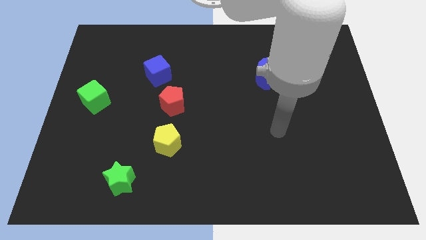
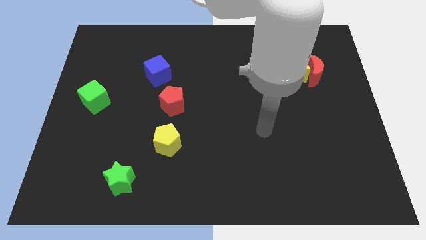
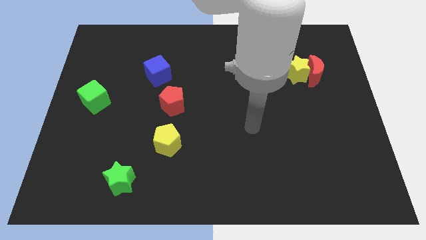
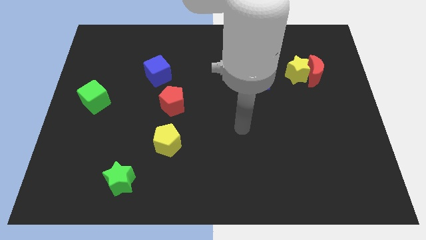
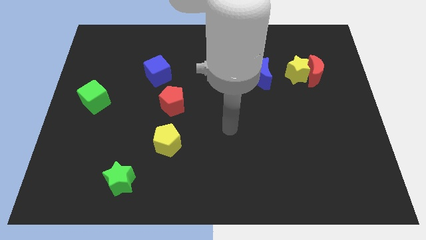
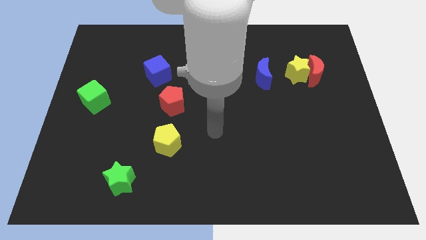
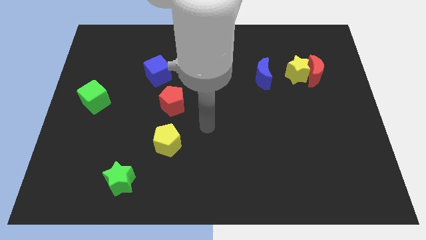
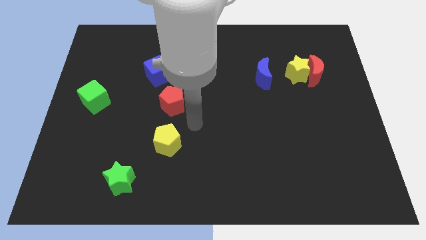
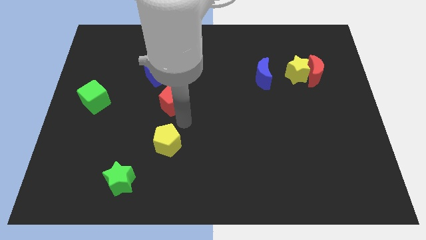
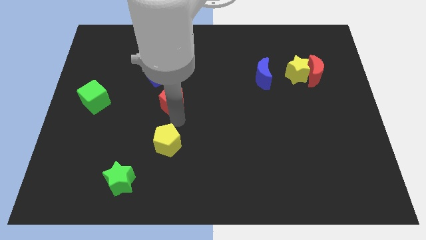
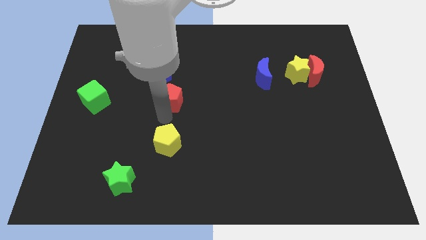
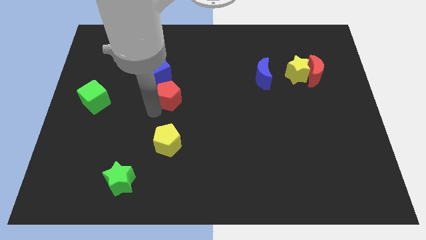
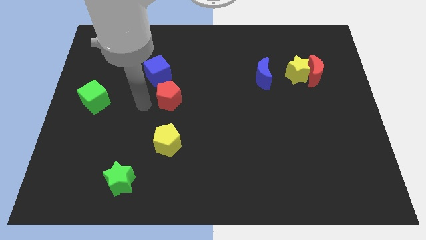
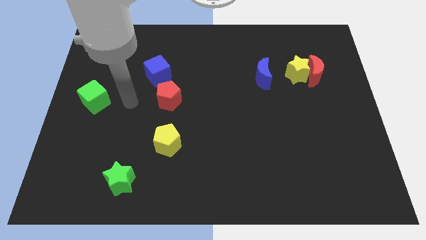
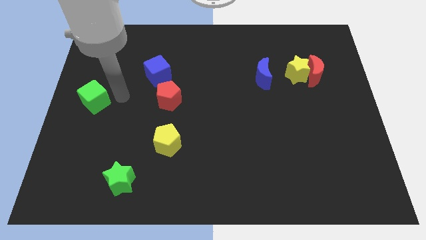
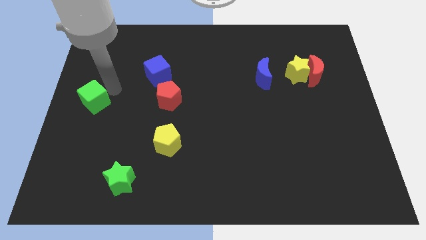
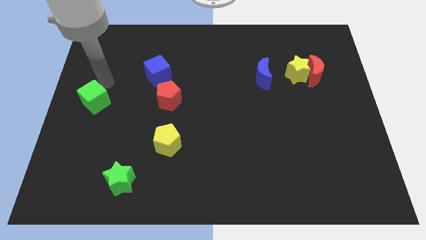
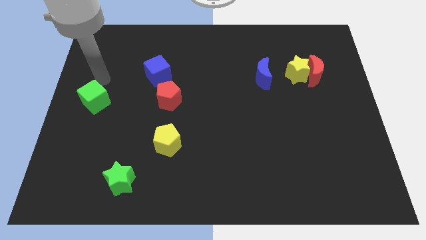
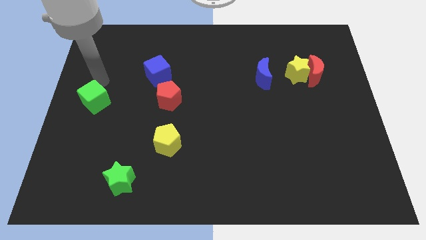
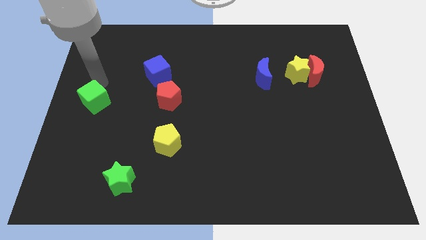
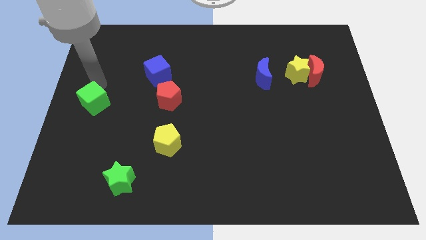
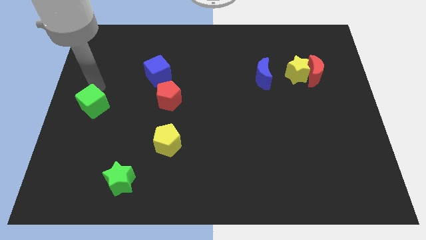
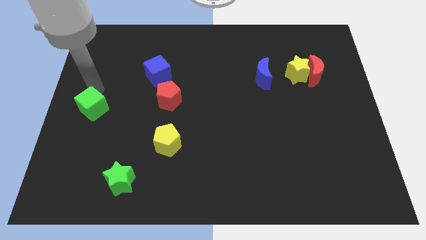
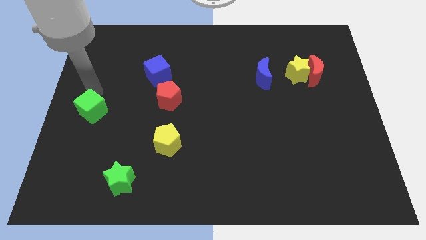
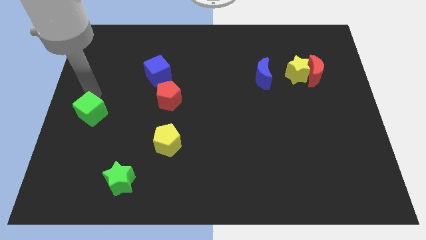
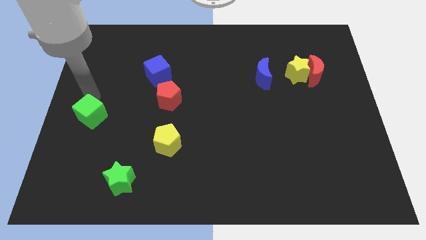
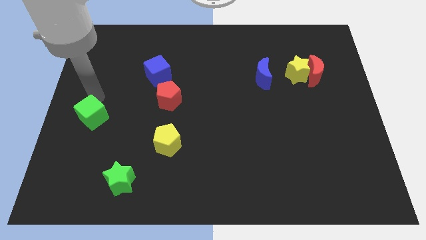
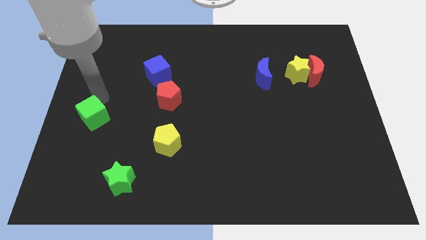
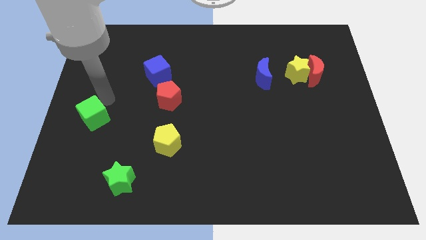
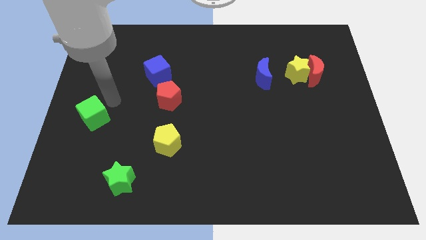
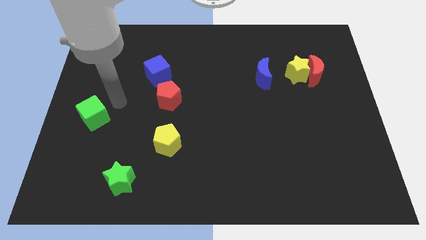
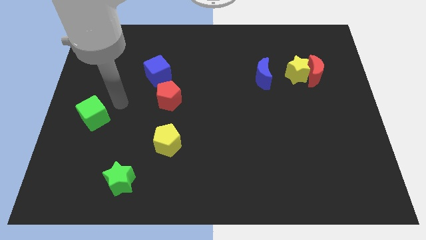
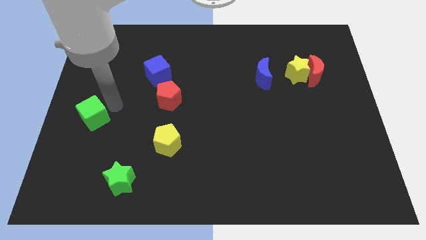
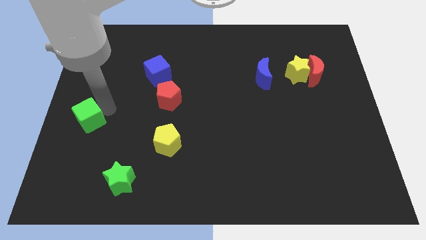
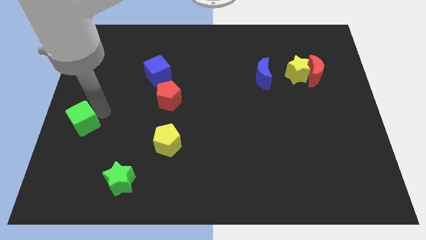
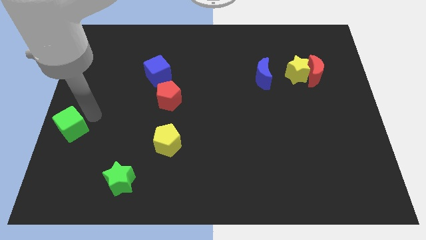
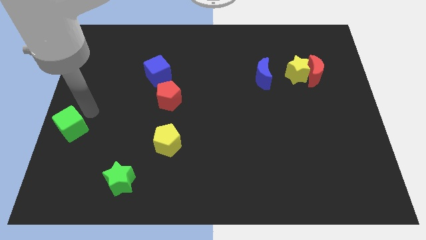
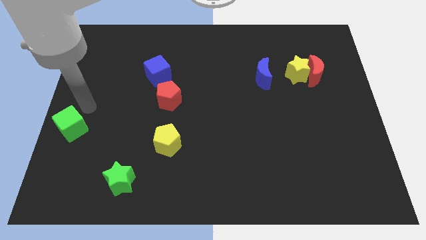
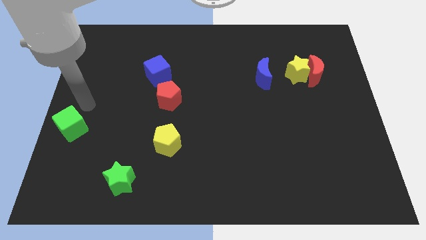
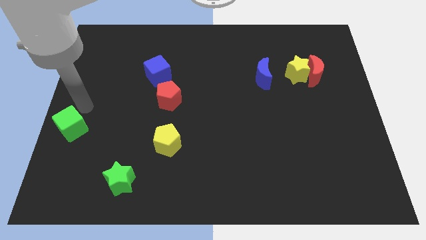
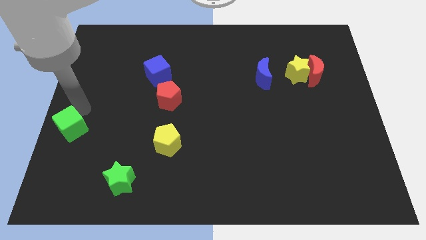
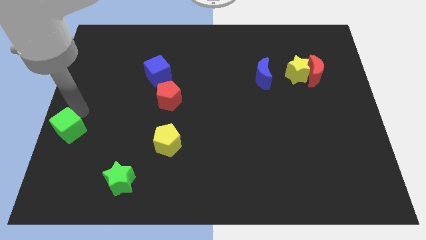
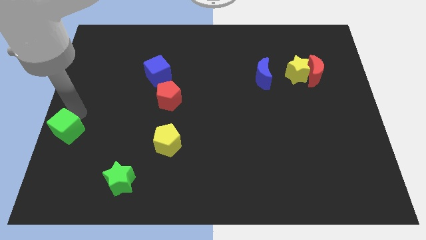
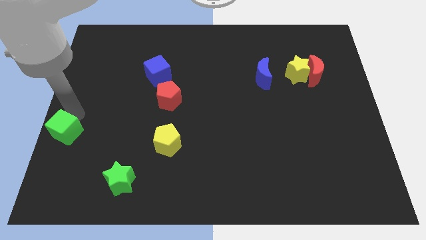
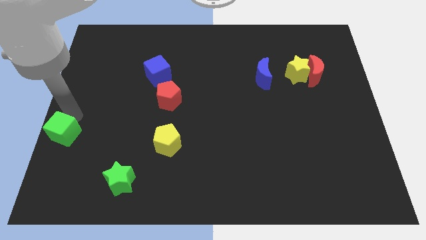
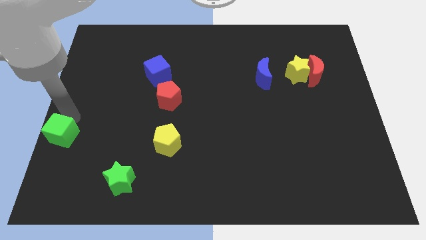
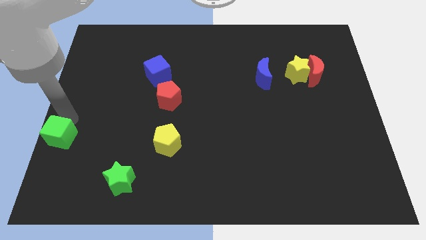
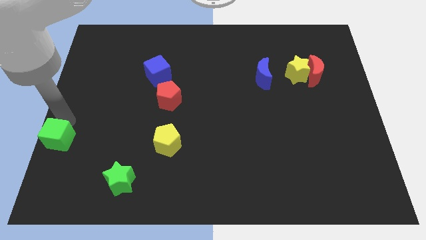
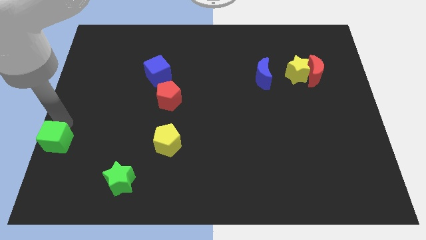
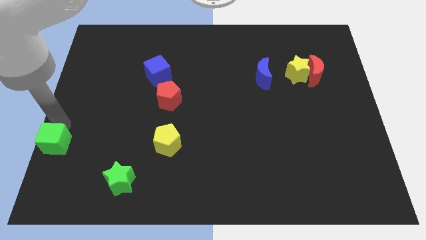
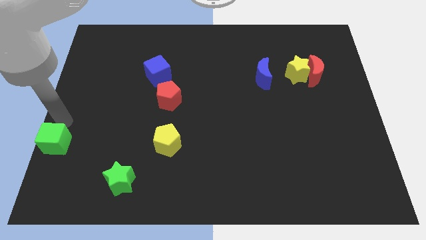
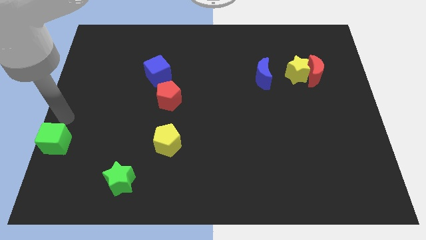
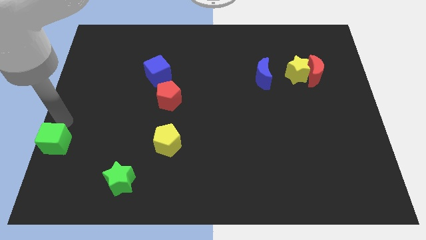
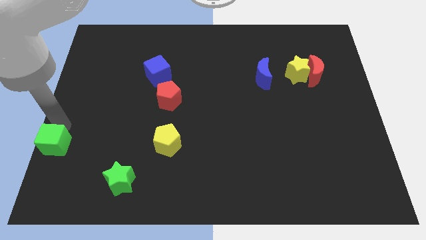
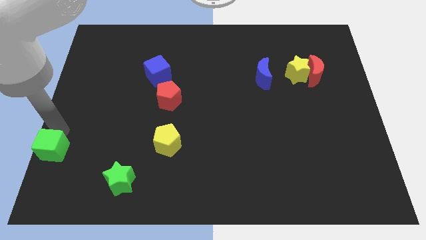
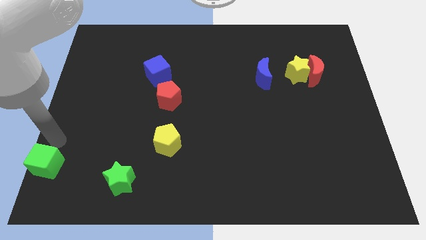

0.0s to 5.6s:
put the green cube to the bottom left

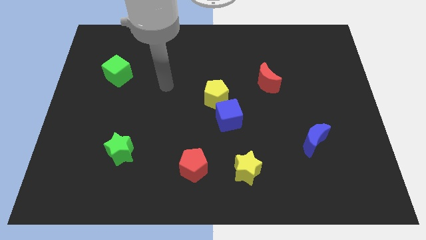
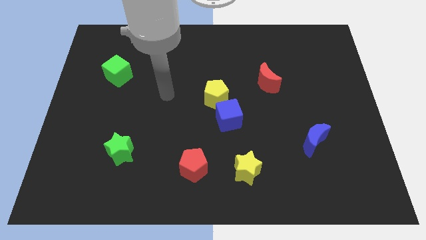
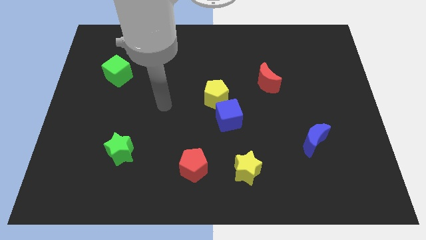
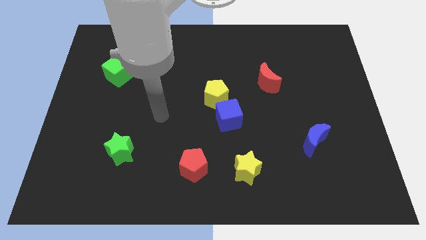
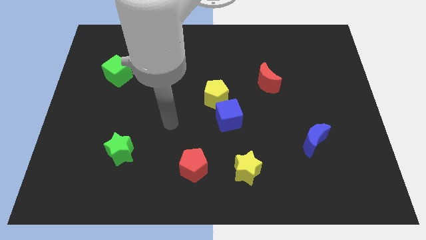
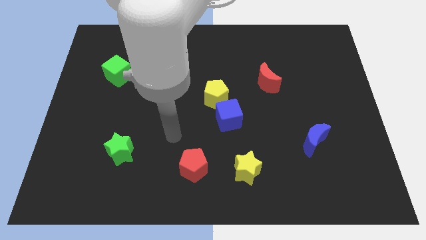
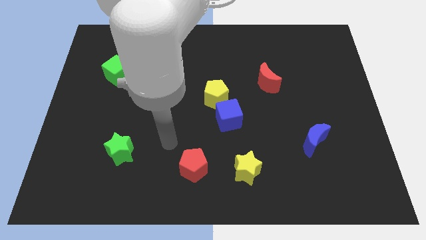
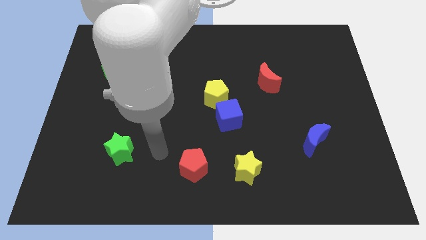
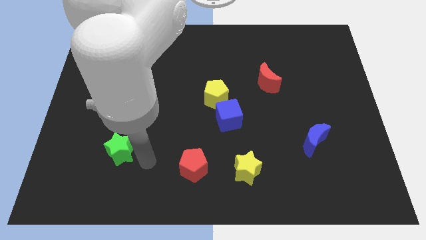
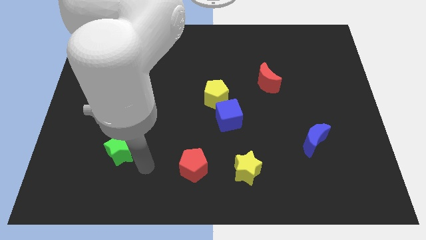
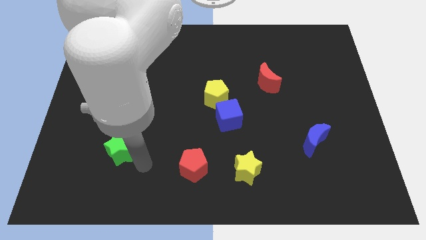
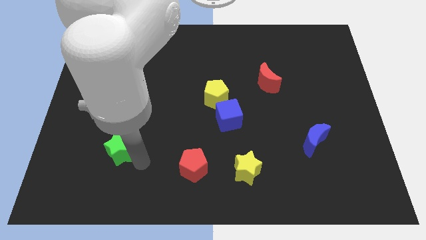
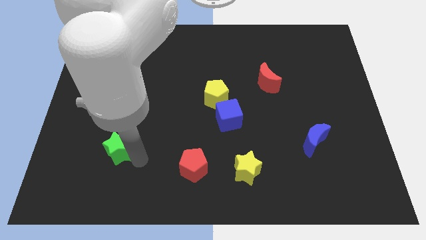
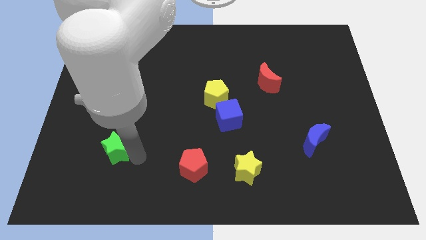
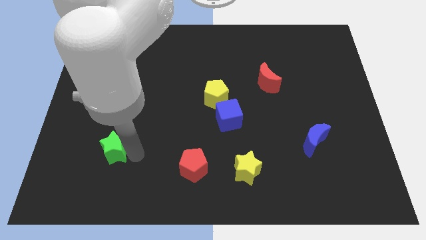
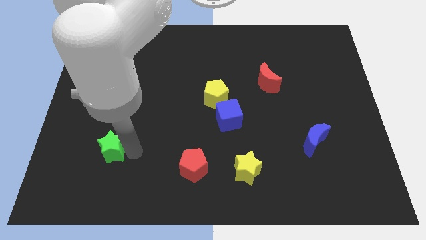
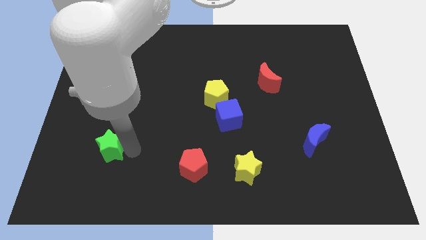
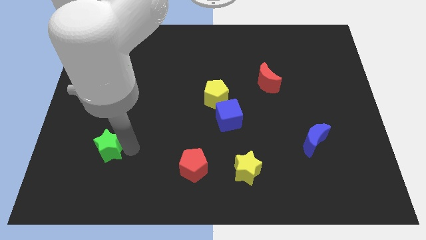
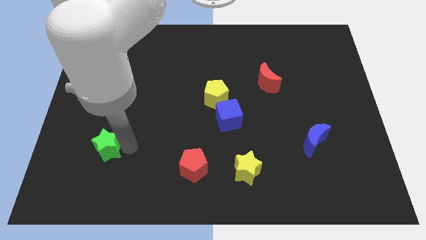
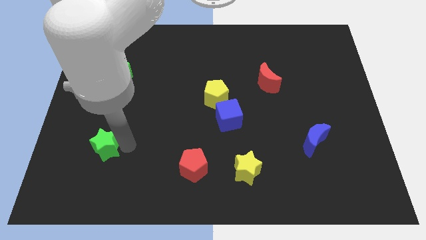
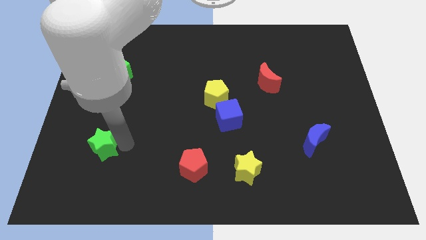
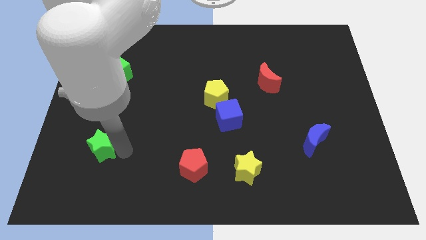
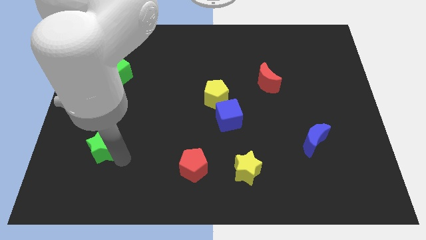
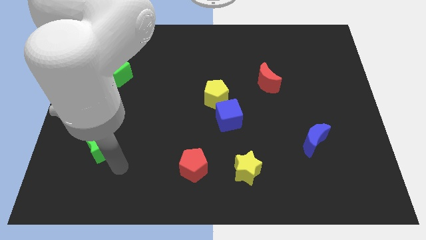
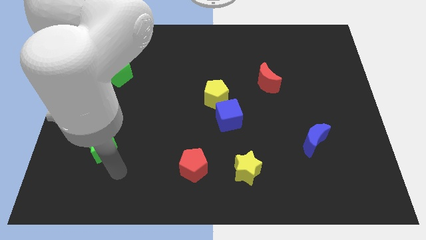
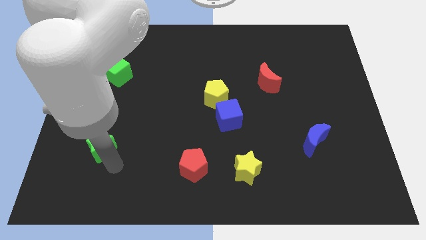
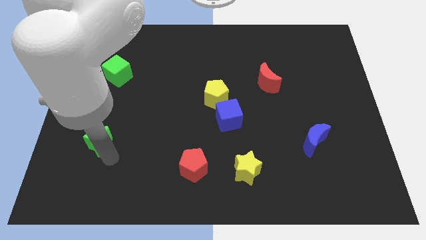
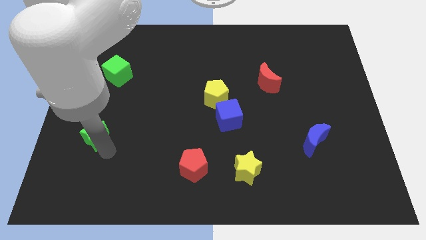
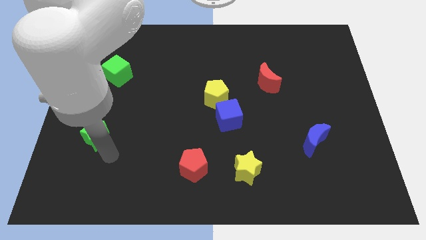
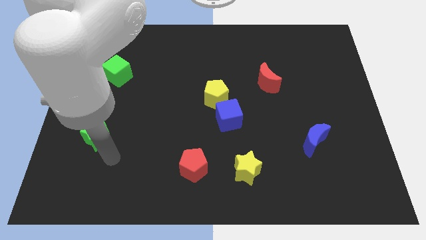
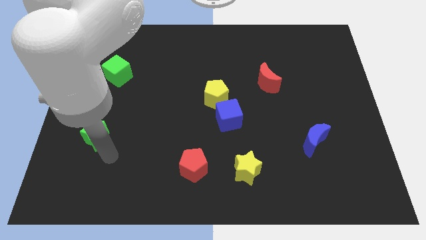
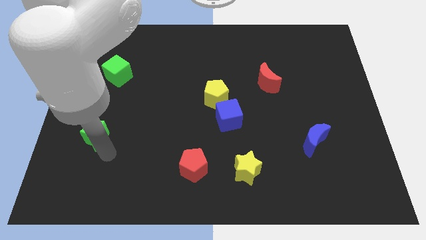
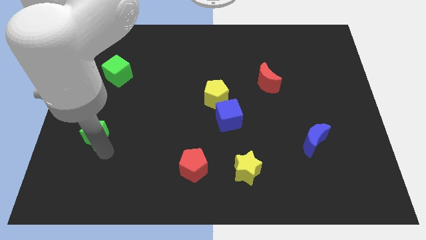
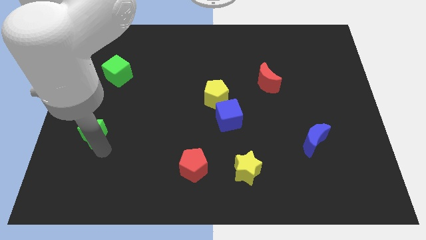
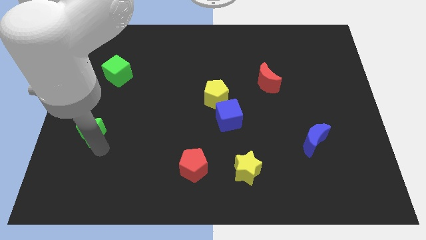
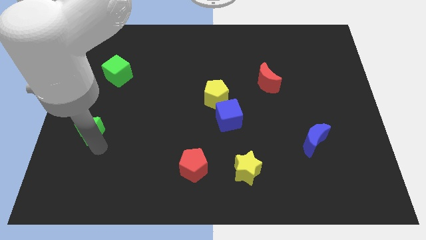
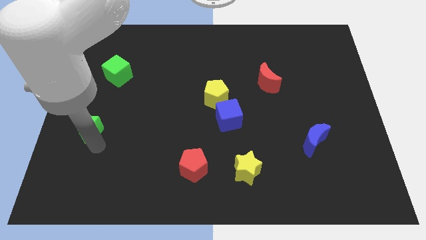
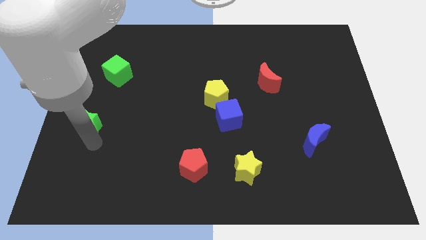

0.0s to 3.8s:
push the green star to the left side
